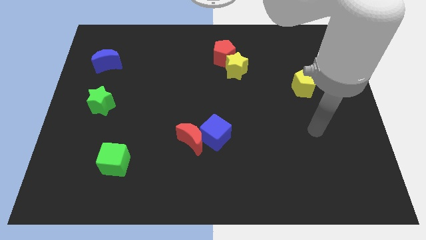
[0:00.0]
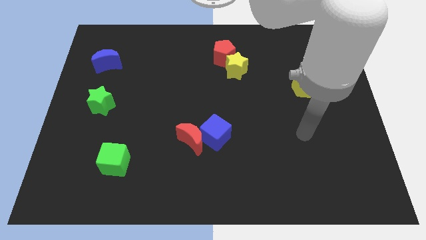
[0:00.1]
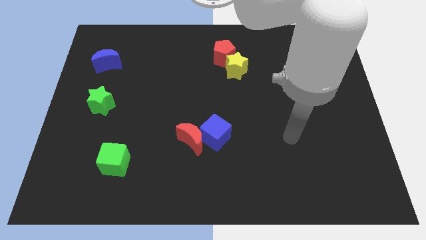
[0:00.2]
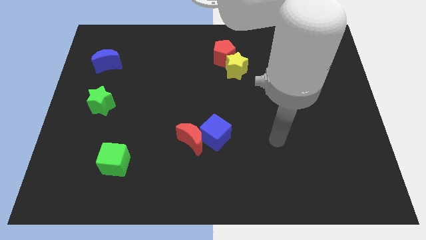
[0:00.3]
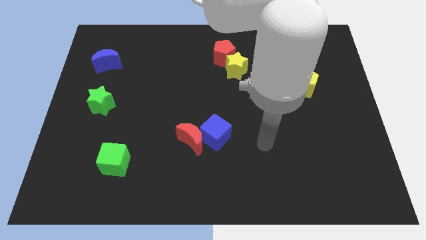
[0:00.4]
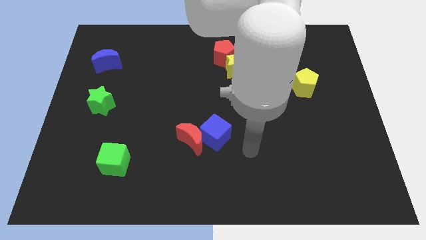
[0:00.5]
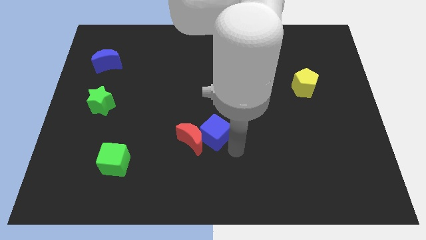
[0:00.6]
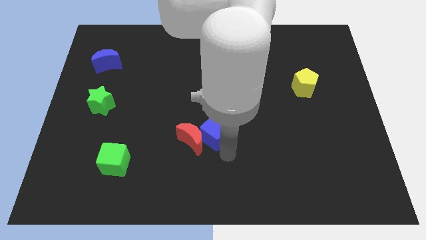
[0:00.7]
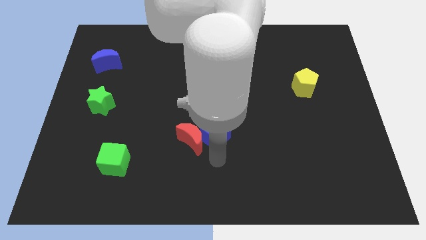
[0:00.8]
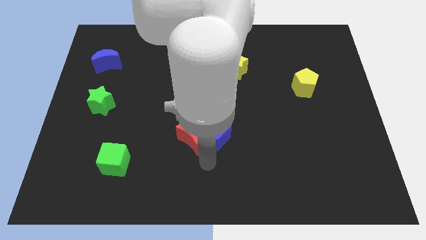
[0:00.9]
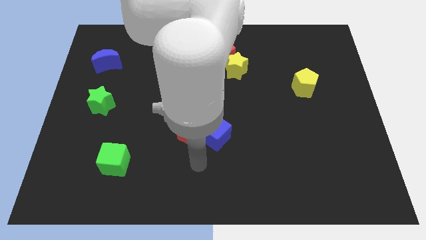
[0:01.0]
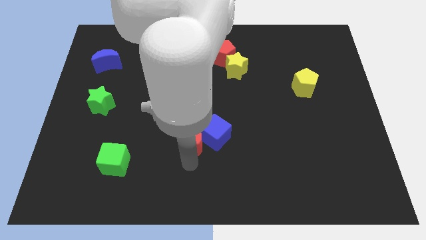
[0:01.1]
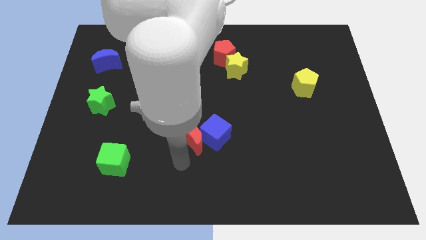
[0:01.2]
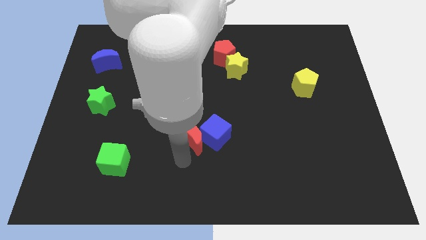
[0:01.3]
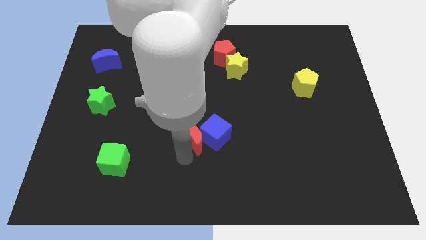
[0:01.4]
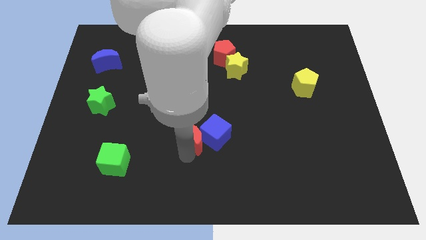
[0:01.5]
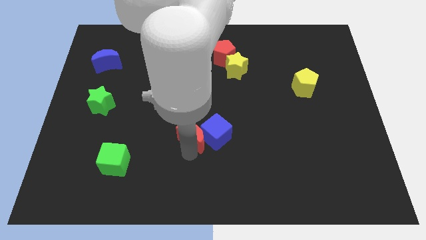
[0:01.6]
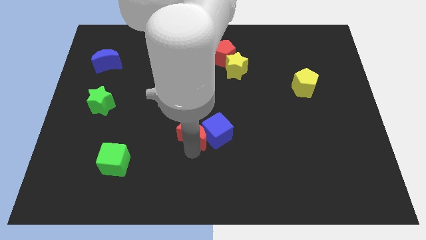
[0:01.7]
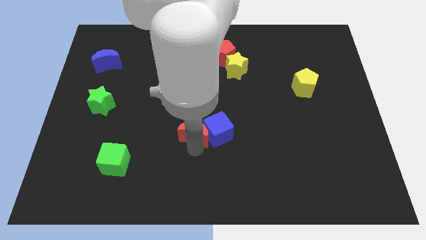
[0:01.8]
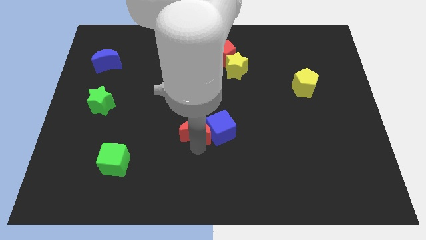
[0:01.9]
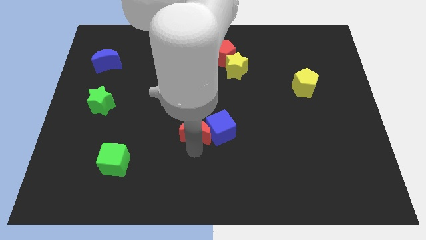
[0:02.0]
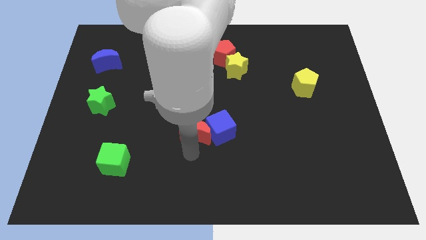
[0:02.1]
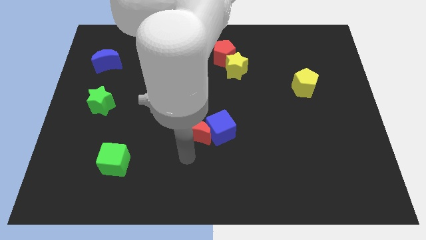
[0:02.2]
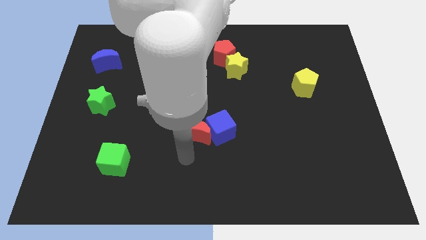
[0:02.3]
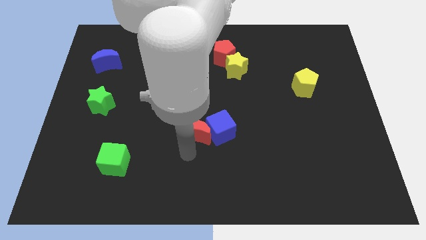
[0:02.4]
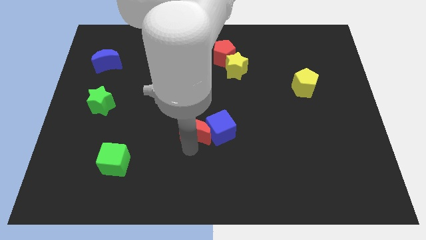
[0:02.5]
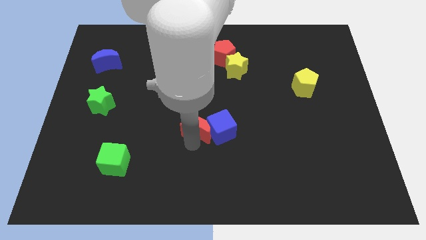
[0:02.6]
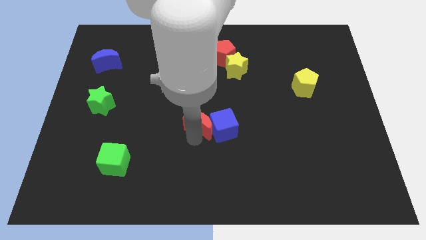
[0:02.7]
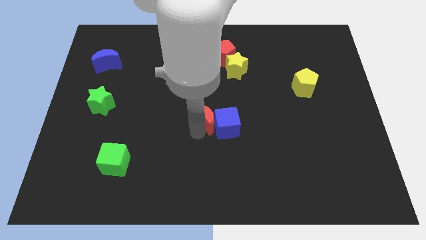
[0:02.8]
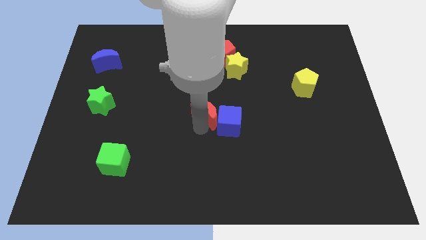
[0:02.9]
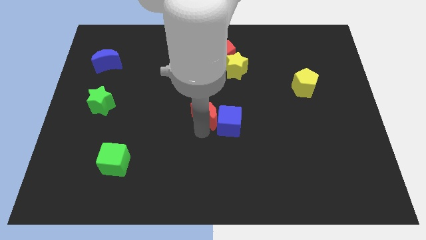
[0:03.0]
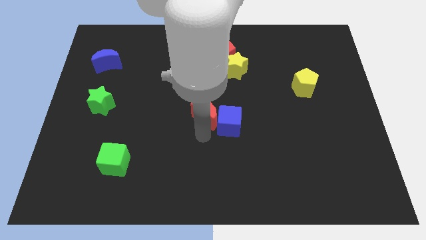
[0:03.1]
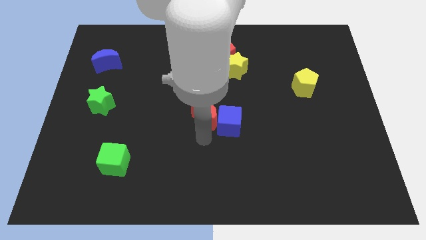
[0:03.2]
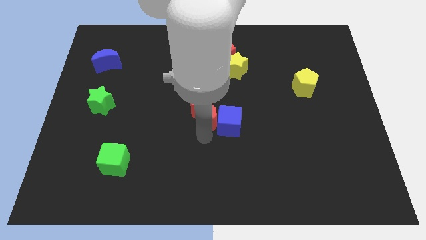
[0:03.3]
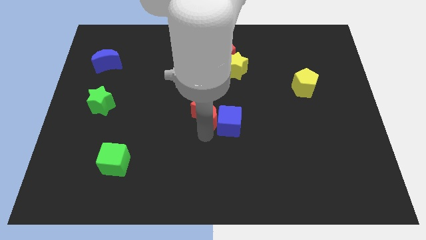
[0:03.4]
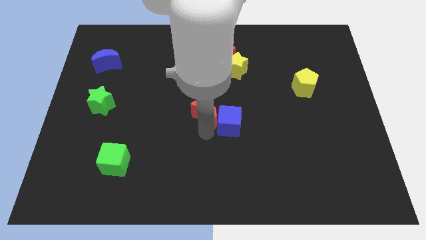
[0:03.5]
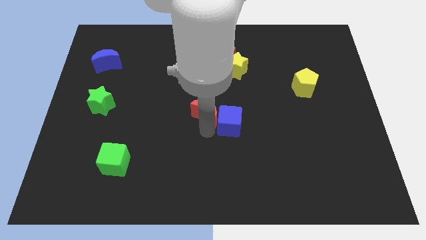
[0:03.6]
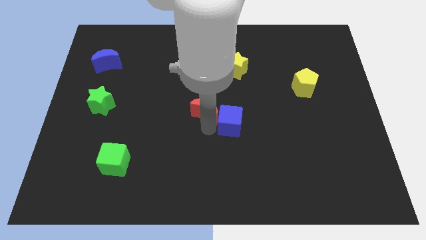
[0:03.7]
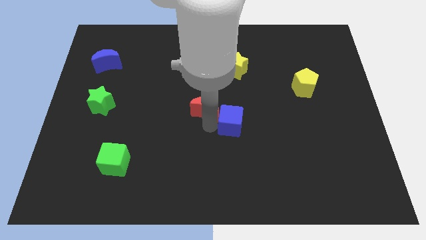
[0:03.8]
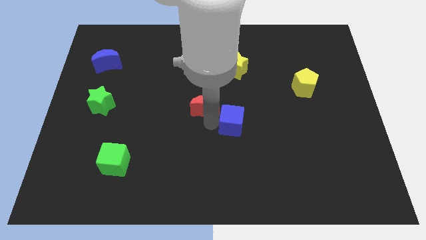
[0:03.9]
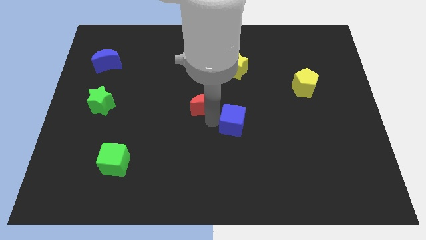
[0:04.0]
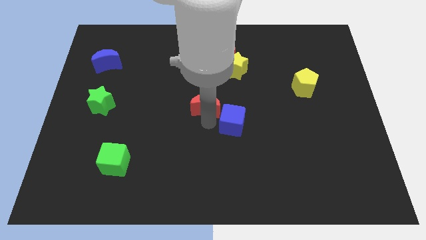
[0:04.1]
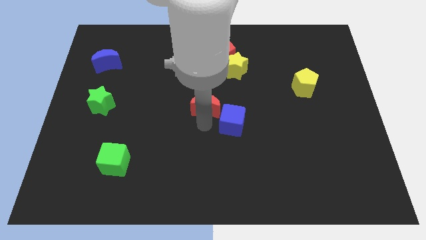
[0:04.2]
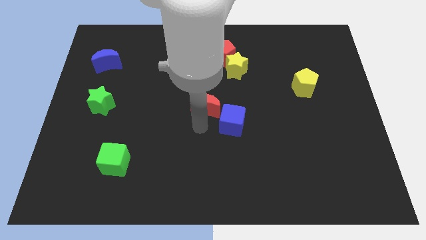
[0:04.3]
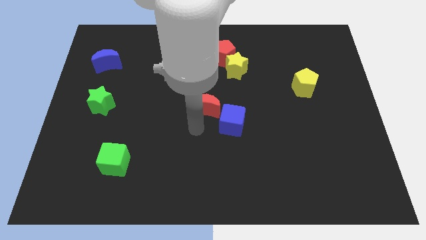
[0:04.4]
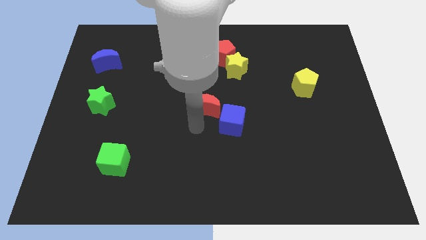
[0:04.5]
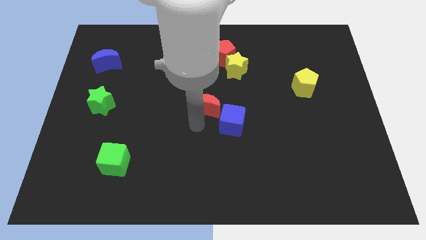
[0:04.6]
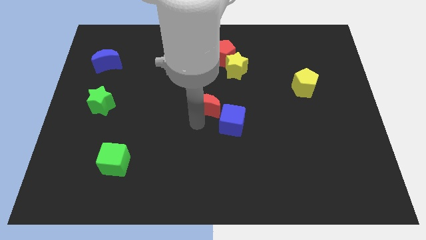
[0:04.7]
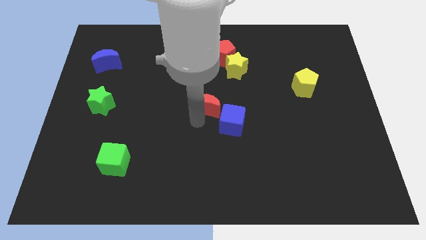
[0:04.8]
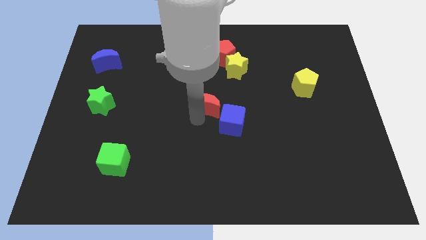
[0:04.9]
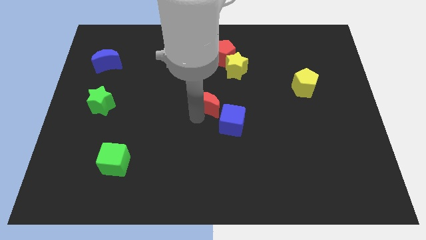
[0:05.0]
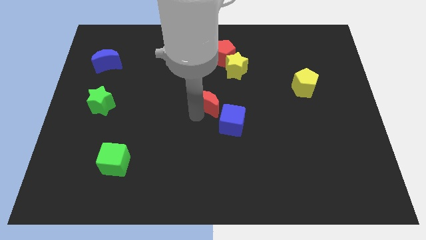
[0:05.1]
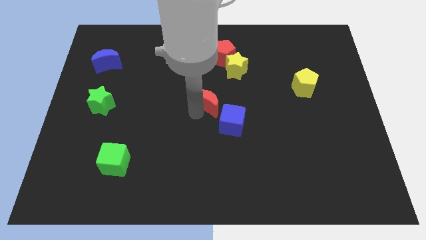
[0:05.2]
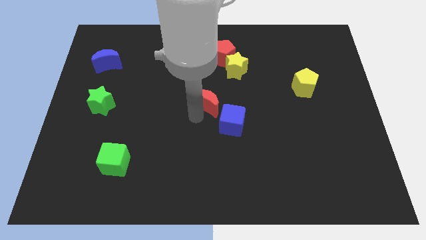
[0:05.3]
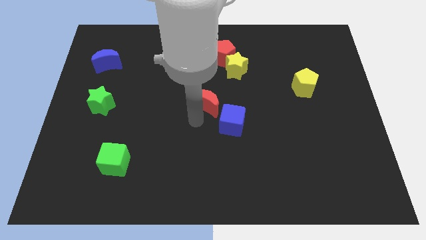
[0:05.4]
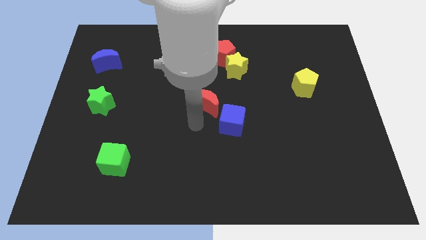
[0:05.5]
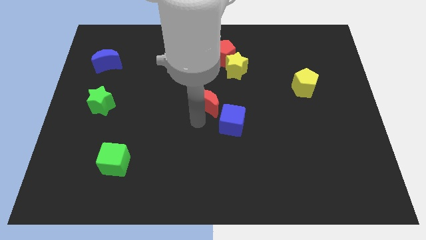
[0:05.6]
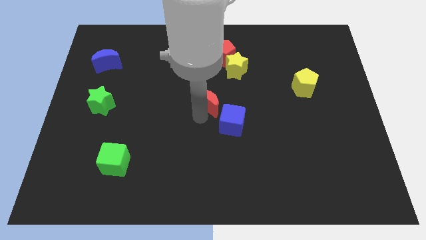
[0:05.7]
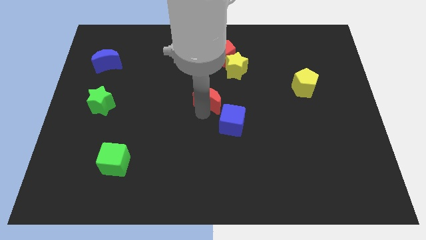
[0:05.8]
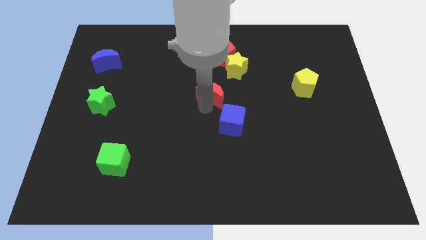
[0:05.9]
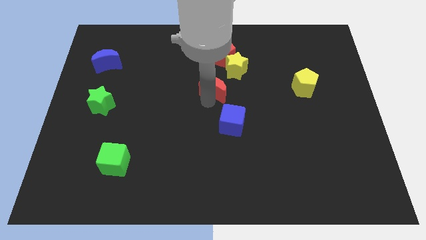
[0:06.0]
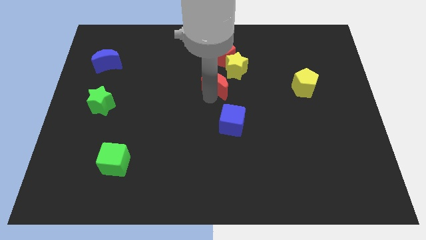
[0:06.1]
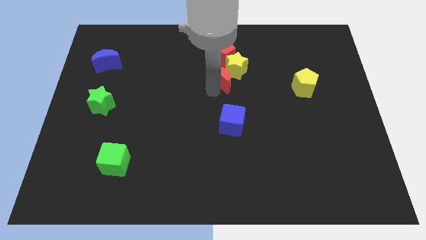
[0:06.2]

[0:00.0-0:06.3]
push the red moon towards the yellow star

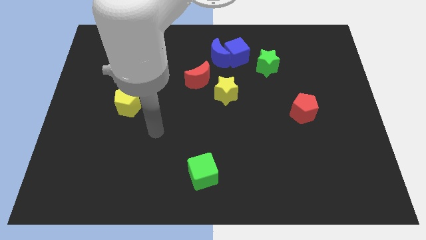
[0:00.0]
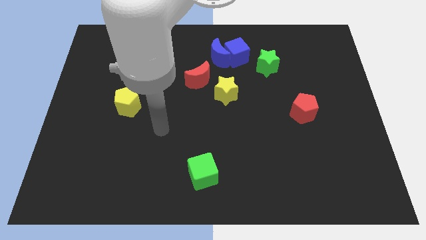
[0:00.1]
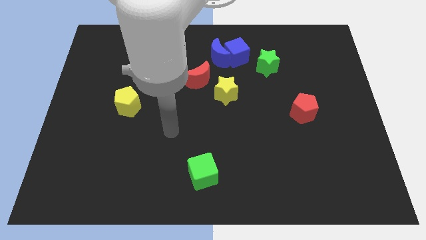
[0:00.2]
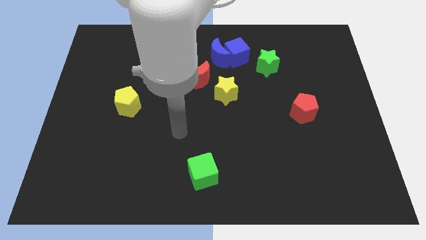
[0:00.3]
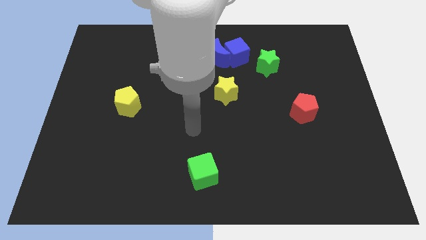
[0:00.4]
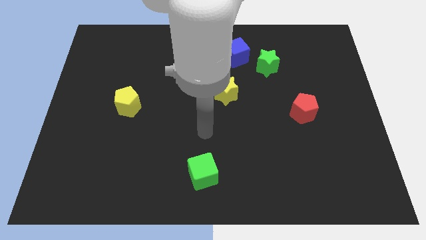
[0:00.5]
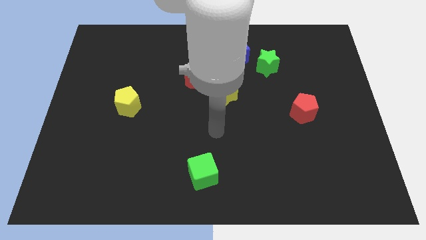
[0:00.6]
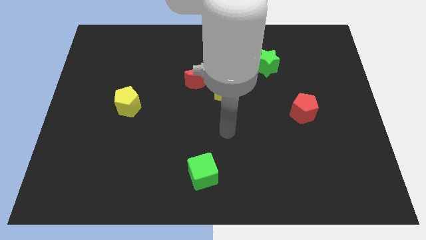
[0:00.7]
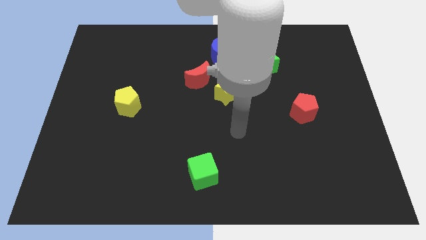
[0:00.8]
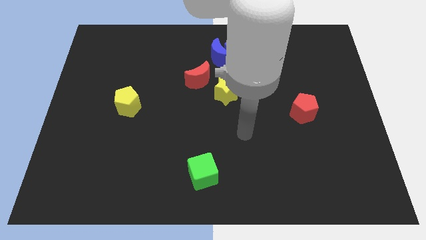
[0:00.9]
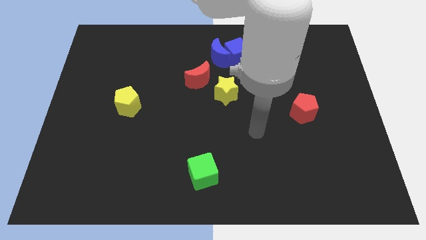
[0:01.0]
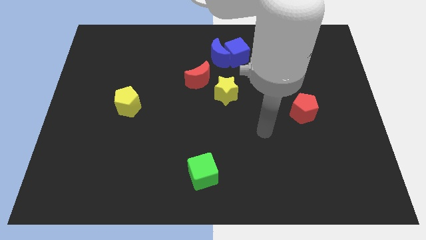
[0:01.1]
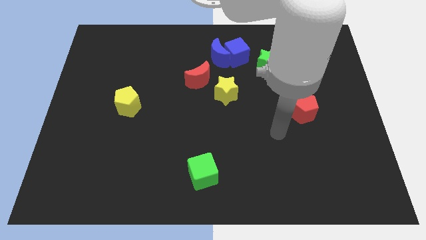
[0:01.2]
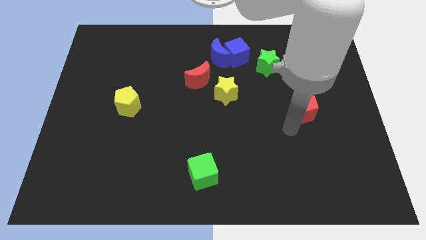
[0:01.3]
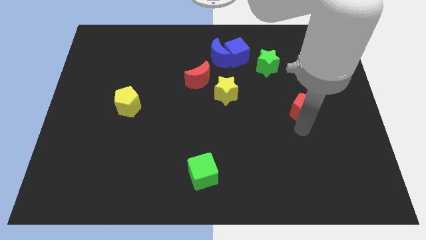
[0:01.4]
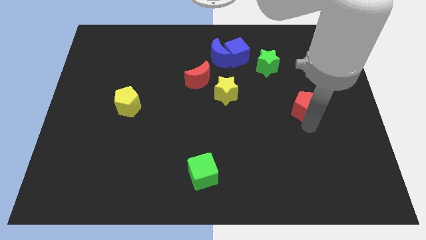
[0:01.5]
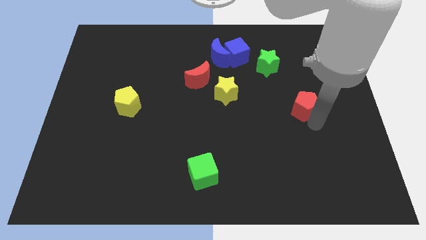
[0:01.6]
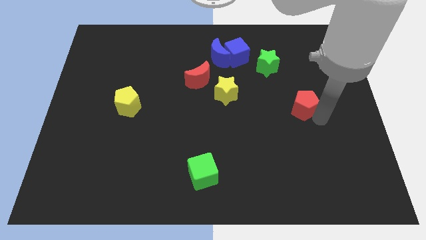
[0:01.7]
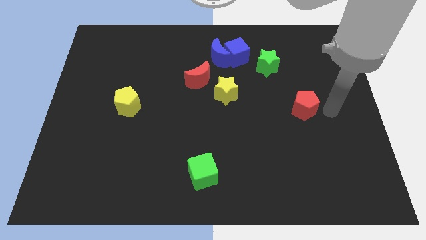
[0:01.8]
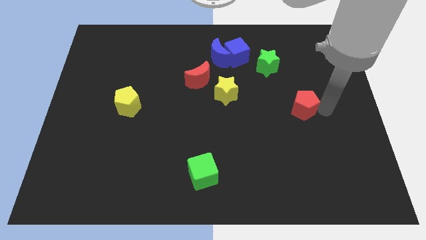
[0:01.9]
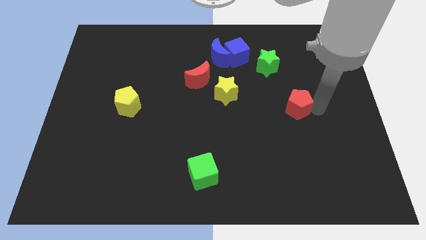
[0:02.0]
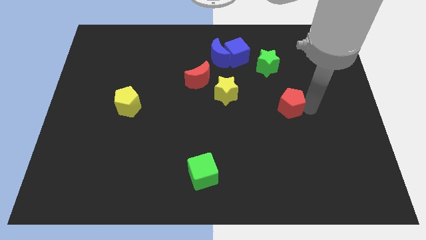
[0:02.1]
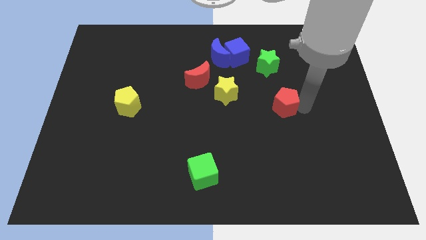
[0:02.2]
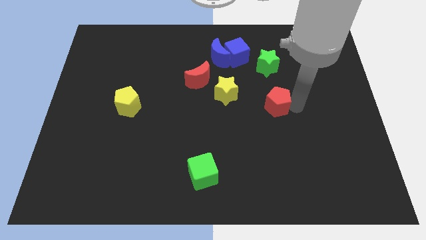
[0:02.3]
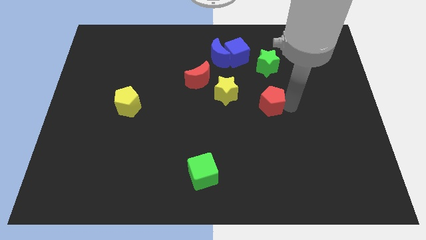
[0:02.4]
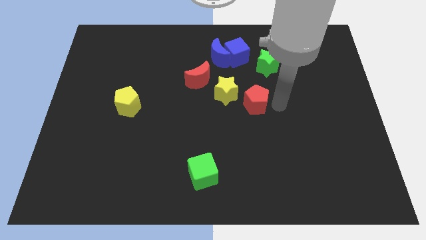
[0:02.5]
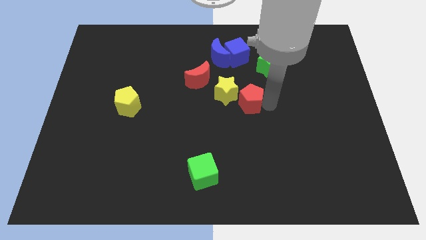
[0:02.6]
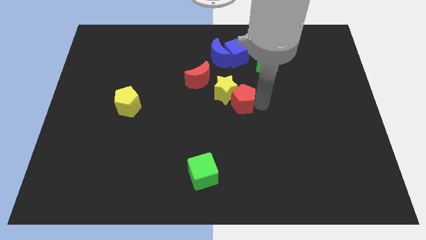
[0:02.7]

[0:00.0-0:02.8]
slide the red pentagon close to the yellow star
